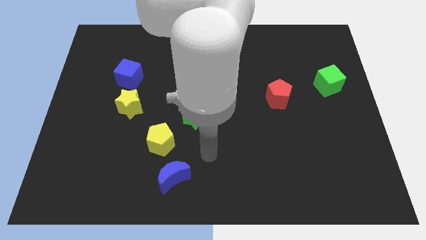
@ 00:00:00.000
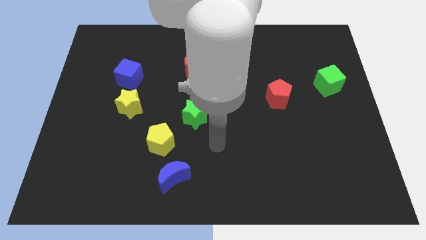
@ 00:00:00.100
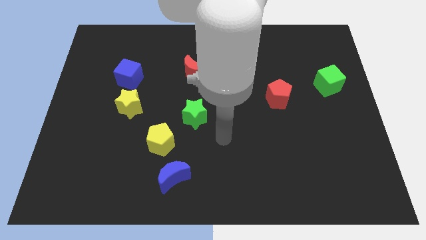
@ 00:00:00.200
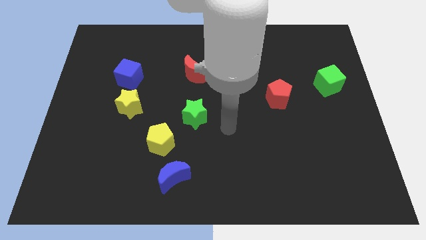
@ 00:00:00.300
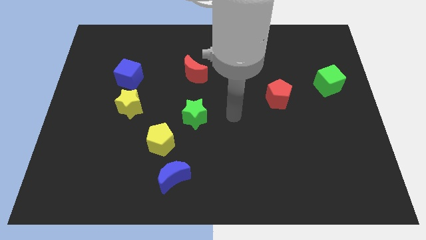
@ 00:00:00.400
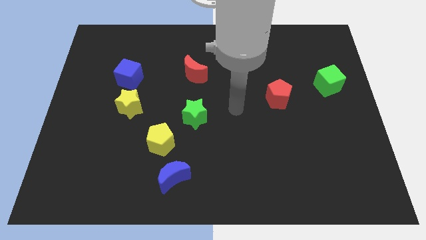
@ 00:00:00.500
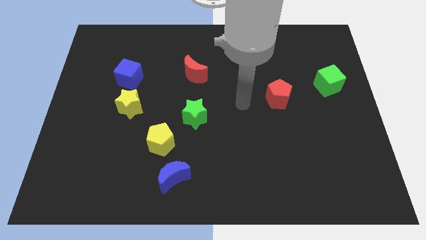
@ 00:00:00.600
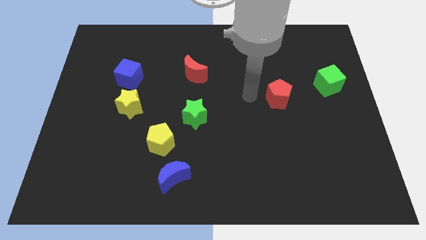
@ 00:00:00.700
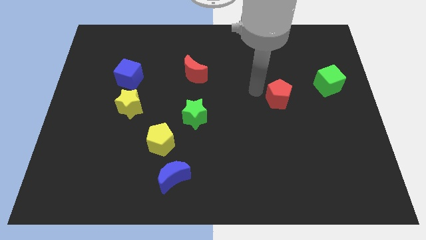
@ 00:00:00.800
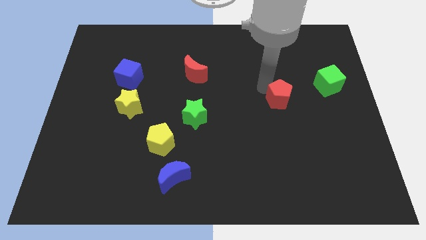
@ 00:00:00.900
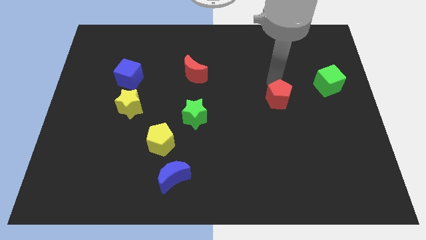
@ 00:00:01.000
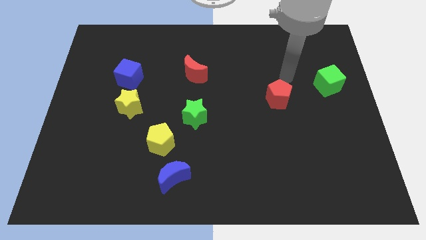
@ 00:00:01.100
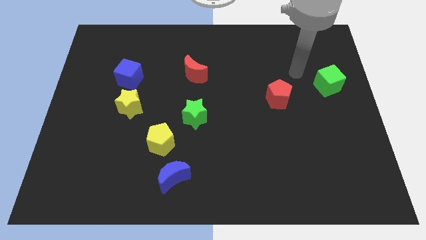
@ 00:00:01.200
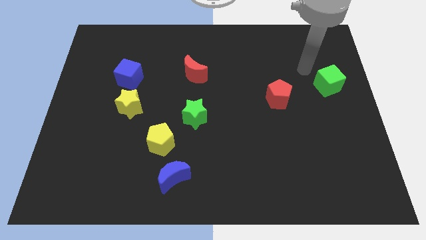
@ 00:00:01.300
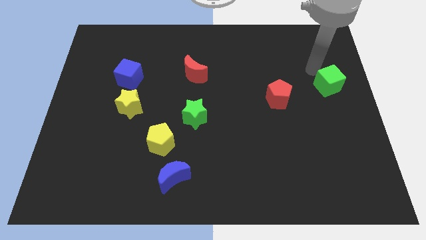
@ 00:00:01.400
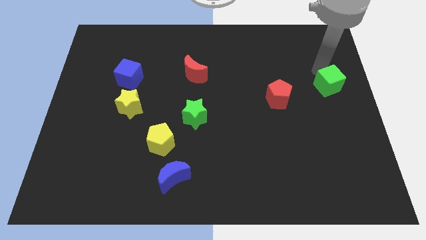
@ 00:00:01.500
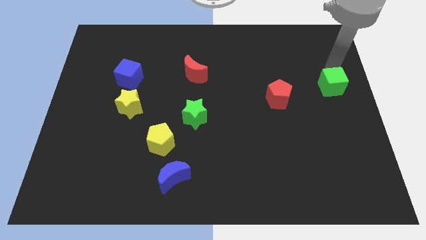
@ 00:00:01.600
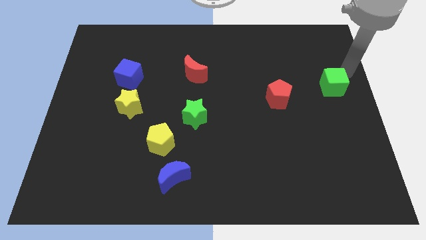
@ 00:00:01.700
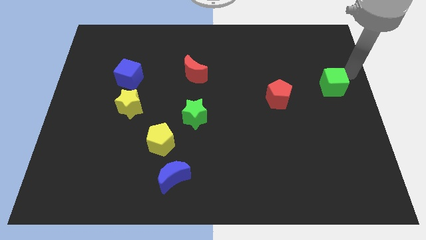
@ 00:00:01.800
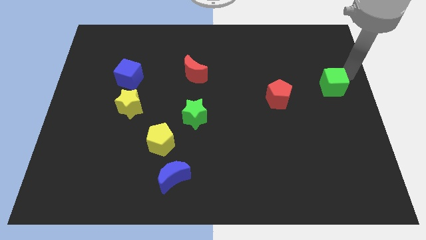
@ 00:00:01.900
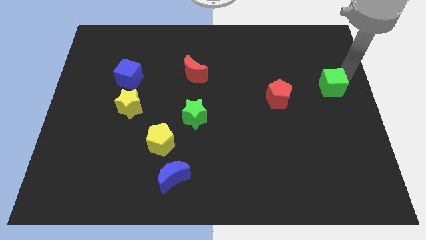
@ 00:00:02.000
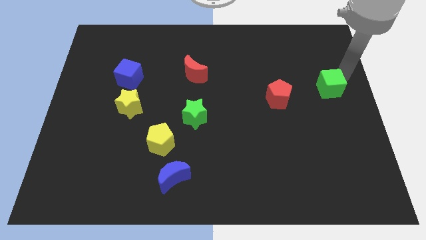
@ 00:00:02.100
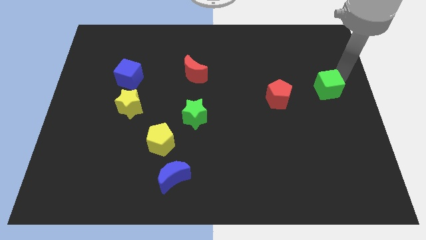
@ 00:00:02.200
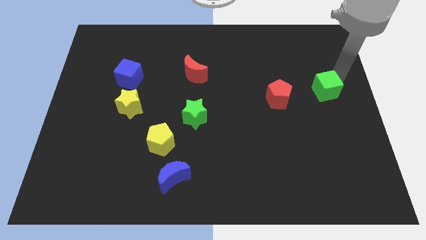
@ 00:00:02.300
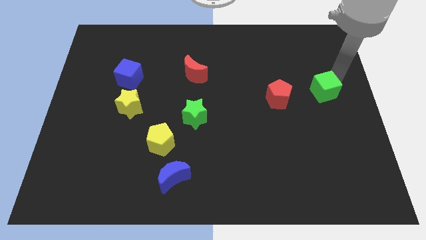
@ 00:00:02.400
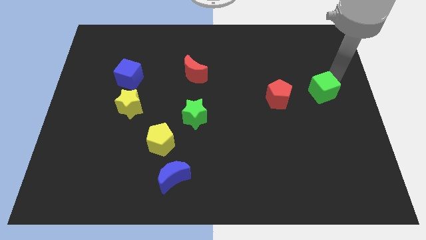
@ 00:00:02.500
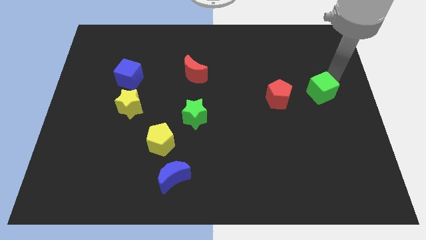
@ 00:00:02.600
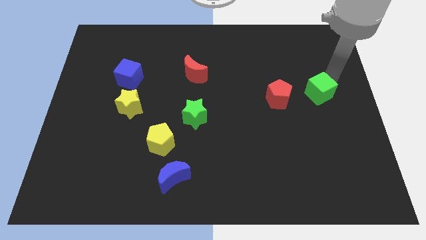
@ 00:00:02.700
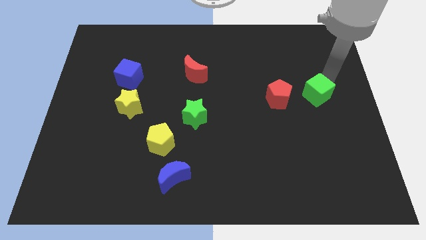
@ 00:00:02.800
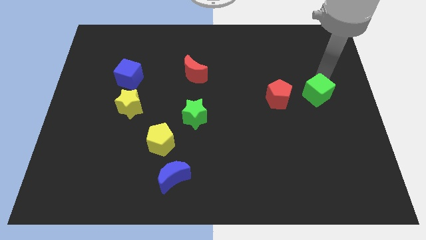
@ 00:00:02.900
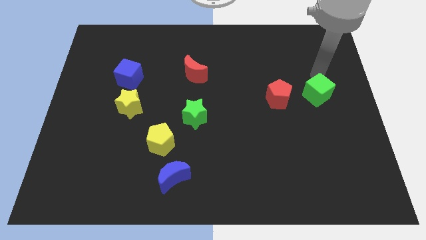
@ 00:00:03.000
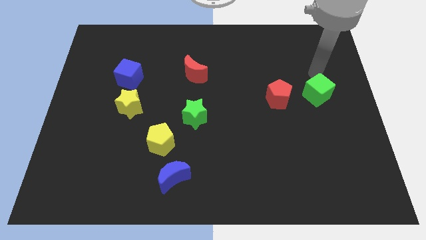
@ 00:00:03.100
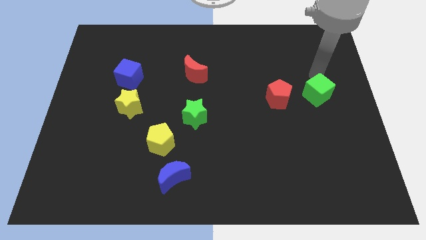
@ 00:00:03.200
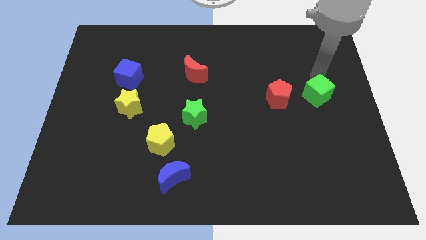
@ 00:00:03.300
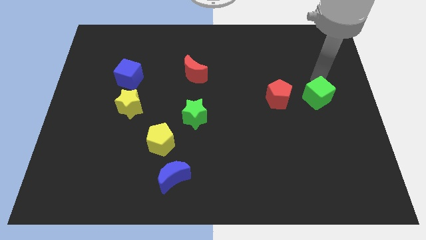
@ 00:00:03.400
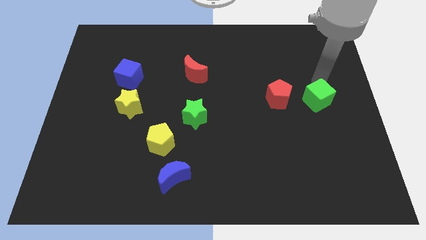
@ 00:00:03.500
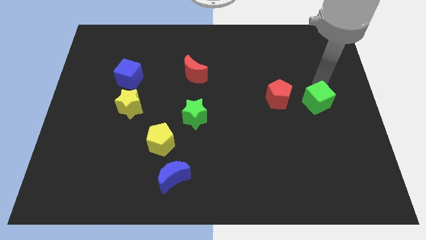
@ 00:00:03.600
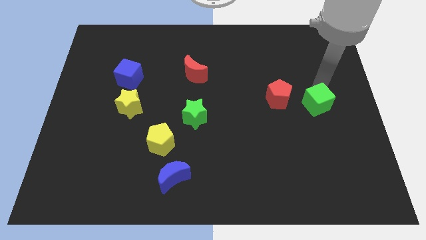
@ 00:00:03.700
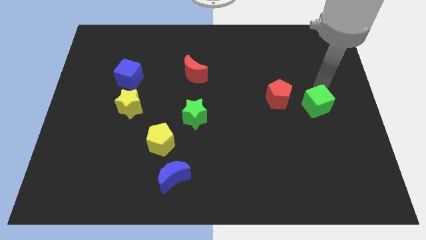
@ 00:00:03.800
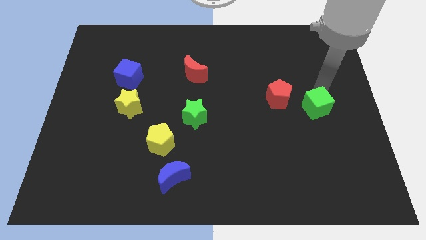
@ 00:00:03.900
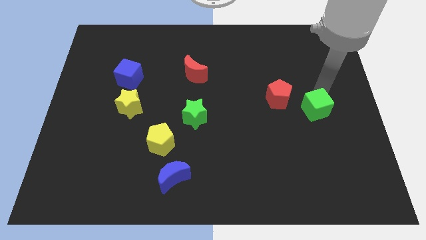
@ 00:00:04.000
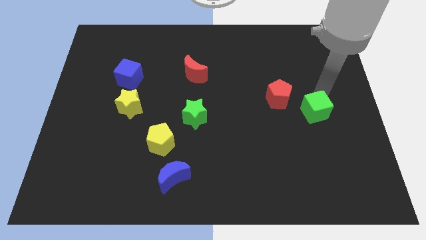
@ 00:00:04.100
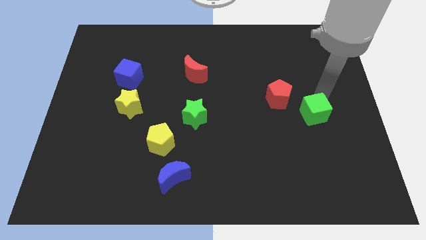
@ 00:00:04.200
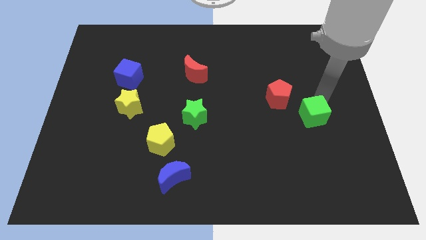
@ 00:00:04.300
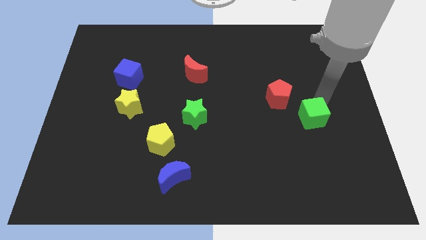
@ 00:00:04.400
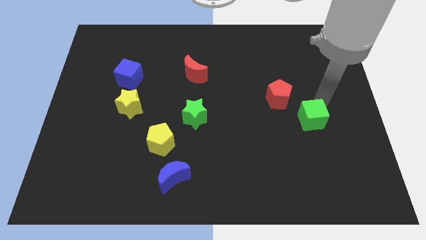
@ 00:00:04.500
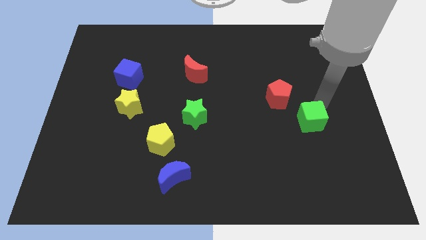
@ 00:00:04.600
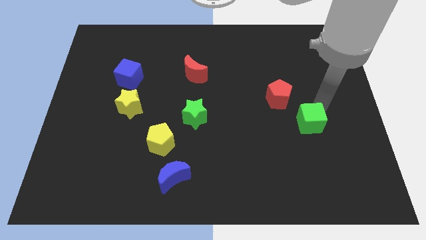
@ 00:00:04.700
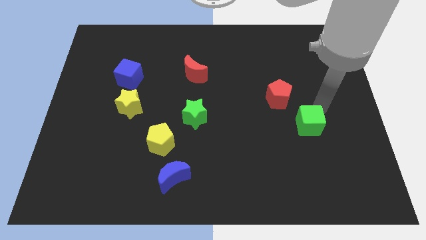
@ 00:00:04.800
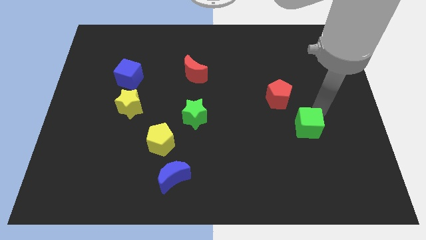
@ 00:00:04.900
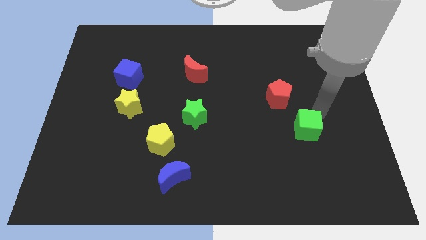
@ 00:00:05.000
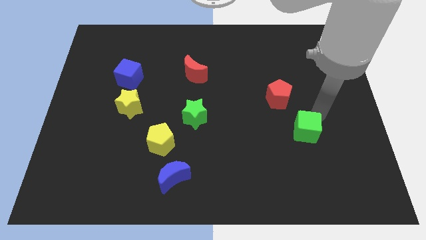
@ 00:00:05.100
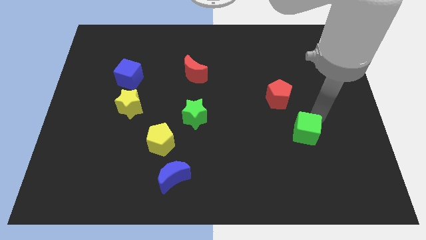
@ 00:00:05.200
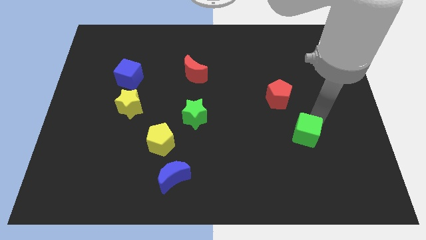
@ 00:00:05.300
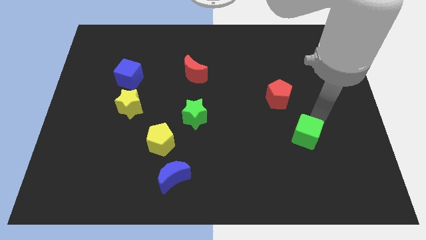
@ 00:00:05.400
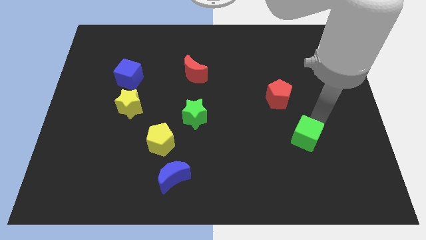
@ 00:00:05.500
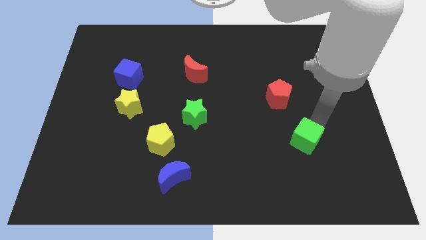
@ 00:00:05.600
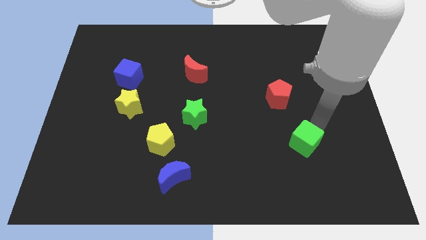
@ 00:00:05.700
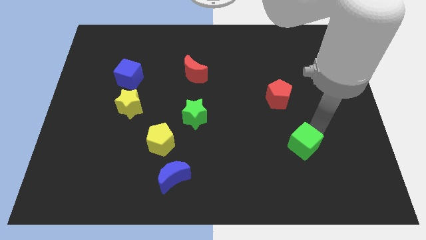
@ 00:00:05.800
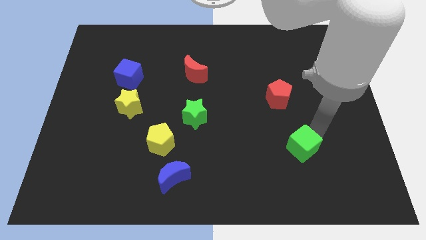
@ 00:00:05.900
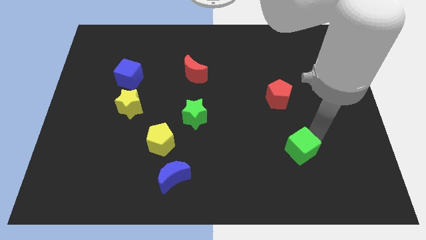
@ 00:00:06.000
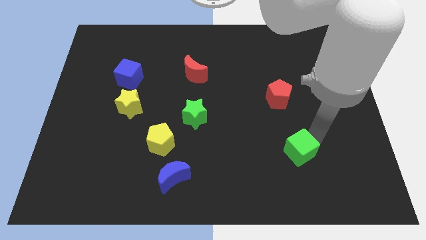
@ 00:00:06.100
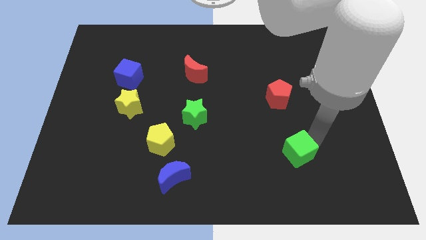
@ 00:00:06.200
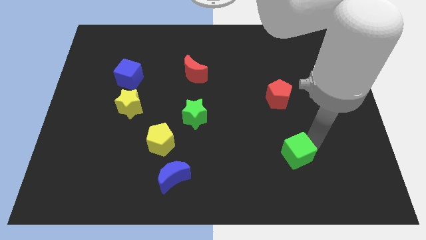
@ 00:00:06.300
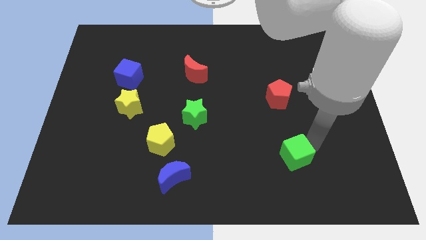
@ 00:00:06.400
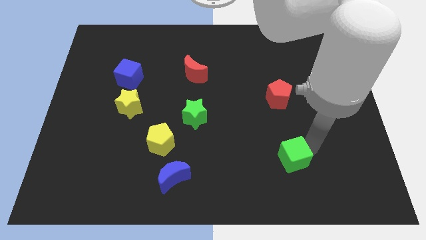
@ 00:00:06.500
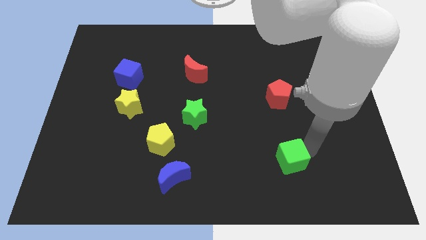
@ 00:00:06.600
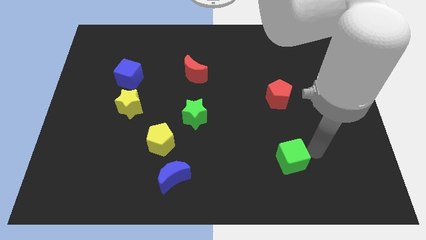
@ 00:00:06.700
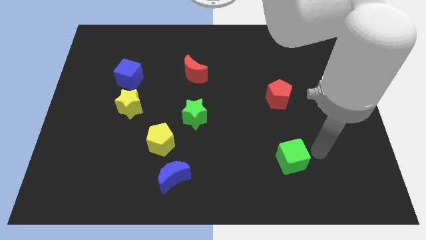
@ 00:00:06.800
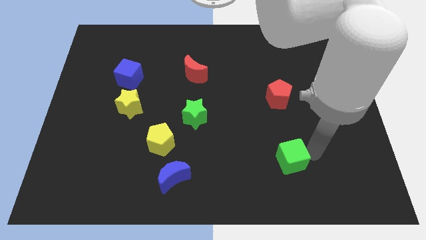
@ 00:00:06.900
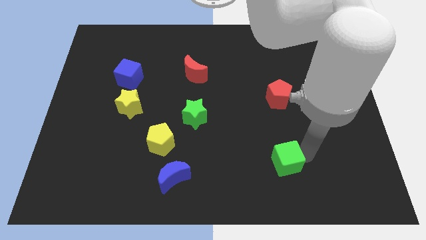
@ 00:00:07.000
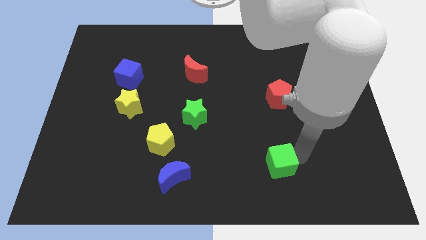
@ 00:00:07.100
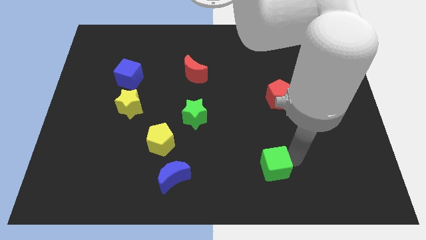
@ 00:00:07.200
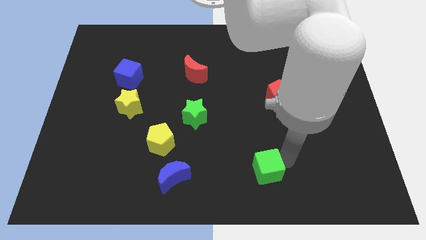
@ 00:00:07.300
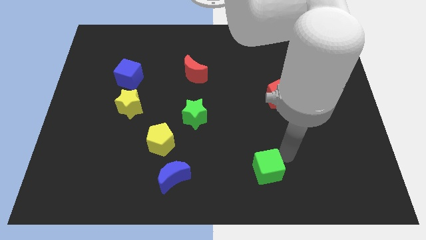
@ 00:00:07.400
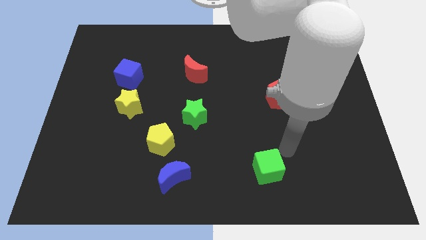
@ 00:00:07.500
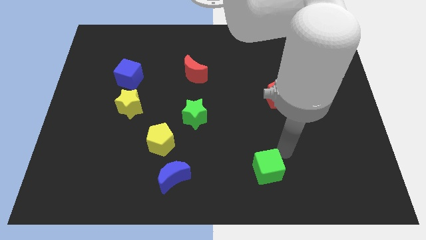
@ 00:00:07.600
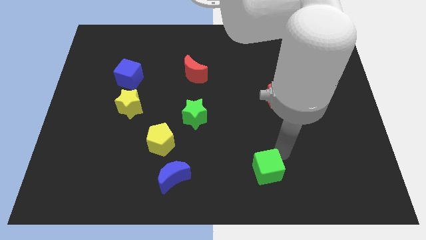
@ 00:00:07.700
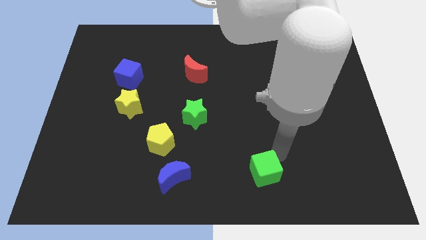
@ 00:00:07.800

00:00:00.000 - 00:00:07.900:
slide the green cube to the bottom
